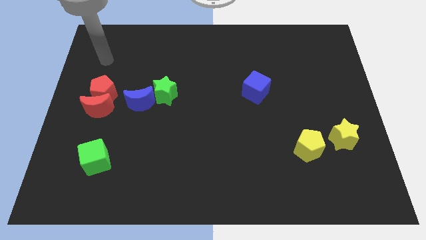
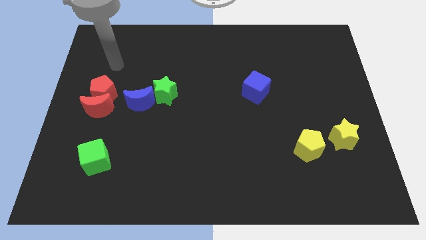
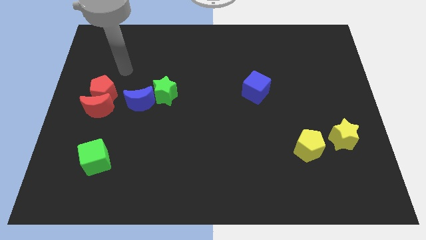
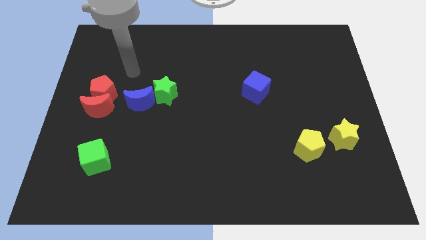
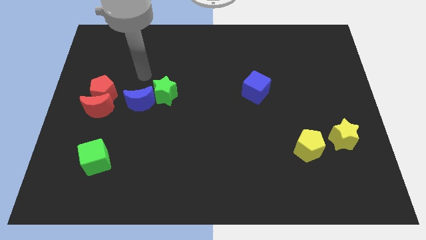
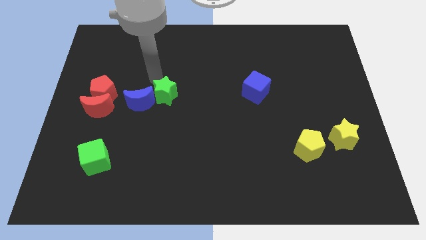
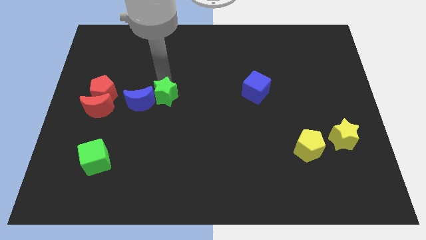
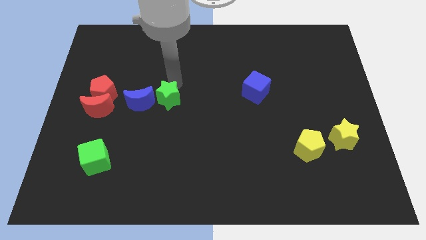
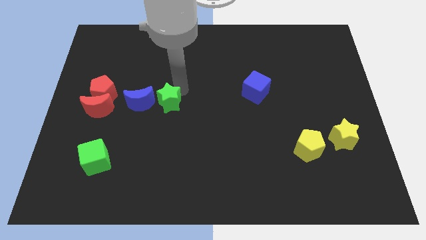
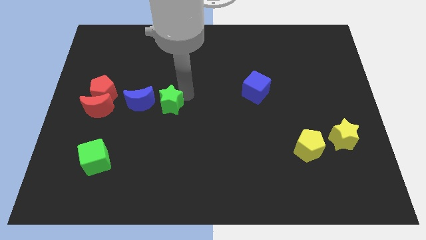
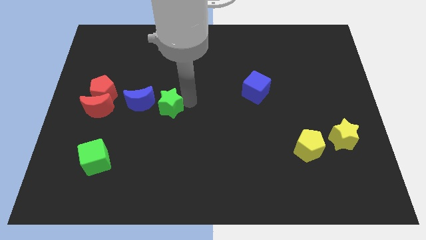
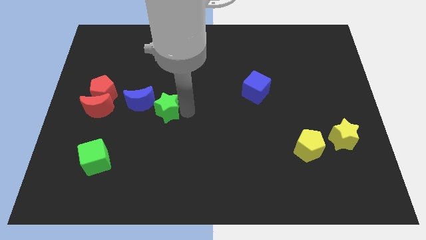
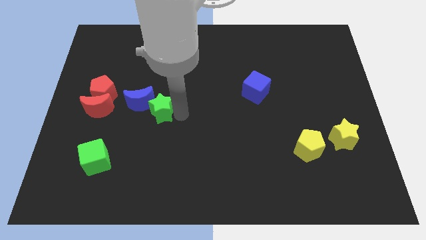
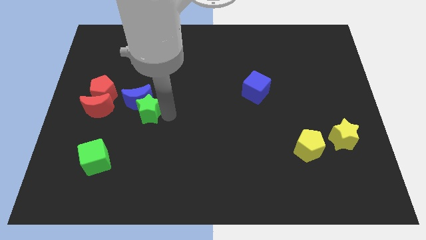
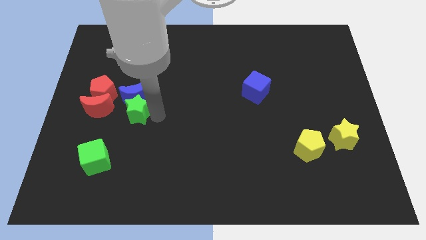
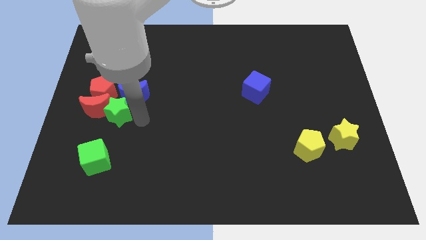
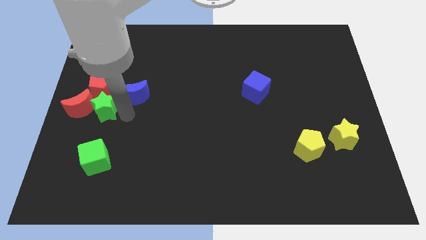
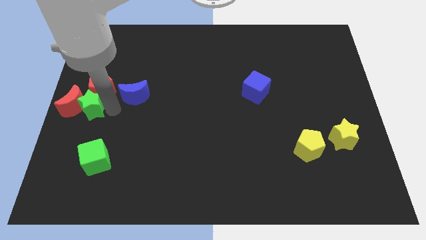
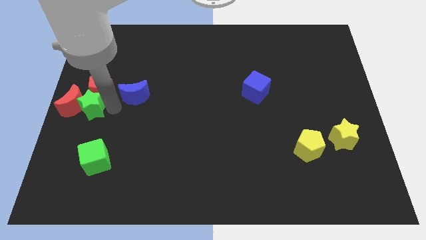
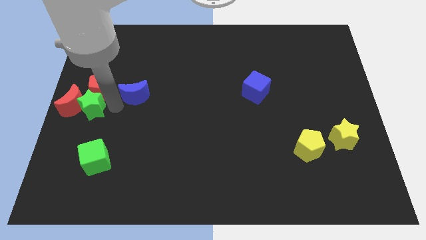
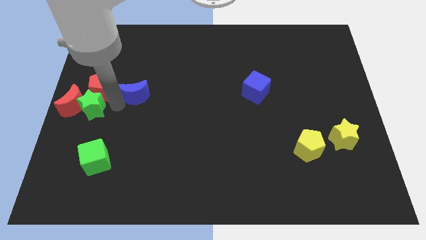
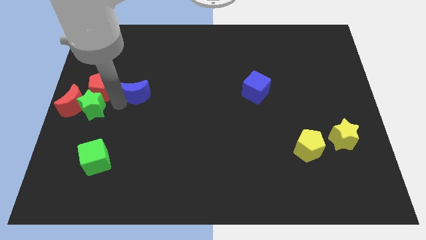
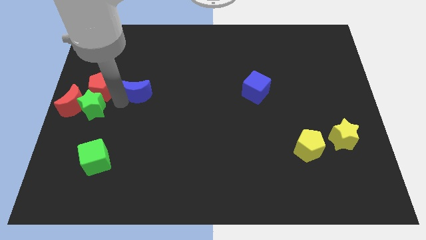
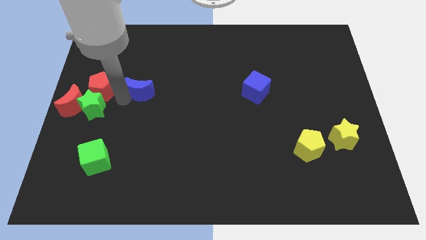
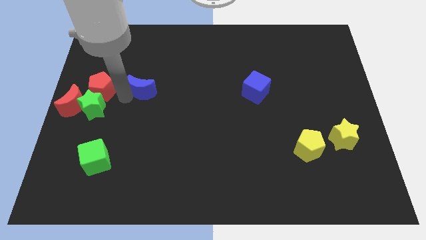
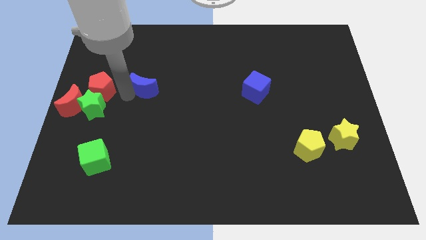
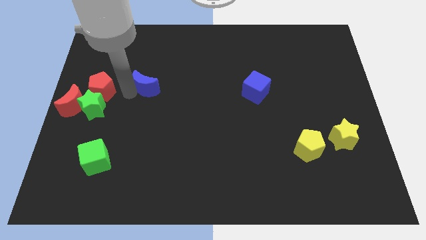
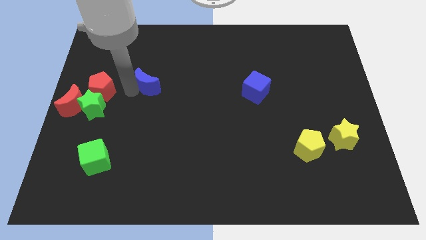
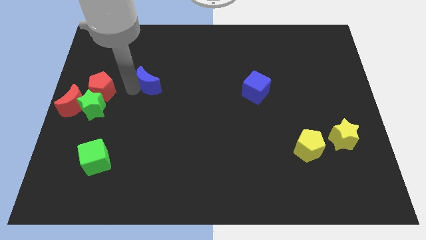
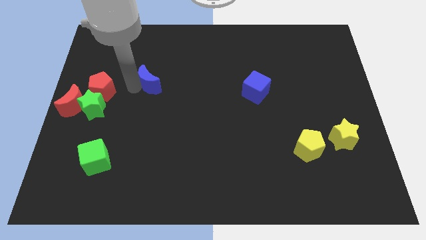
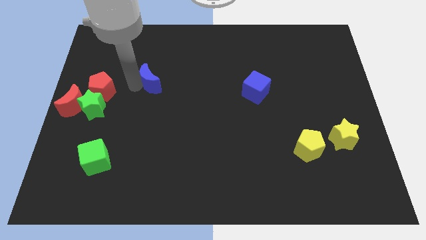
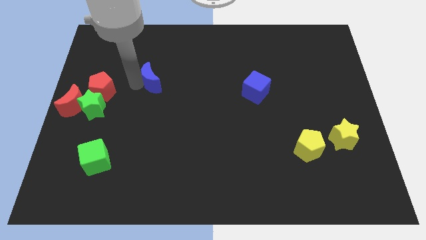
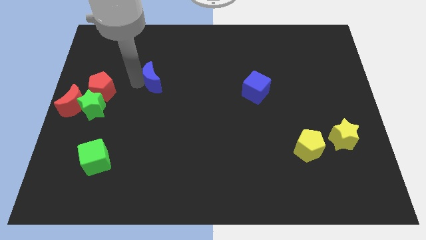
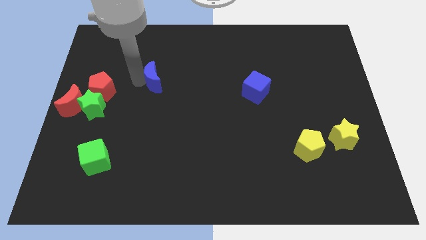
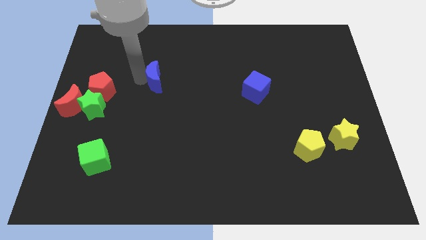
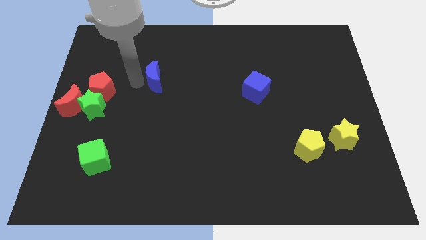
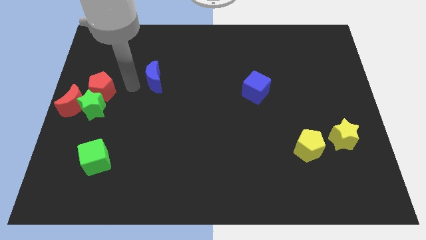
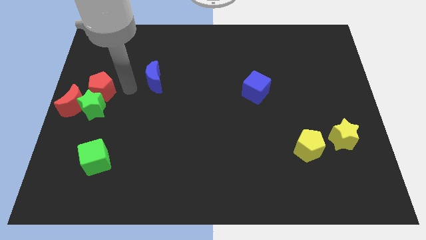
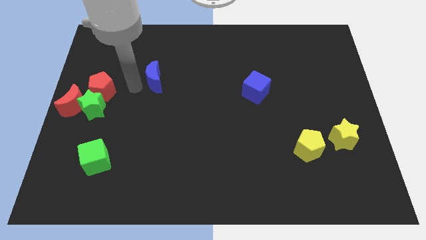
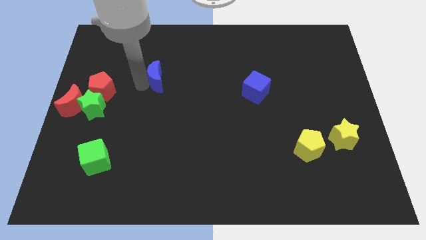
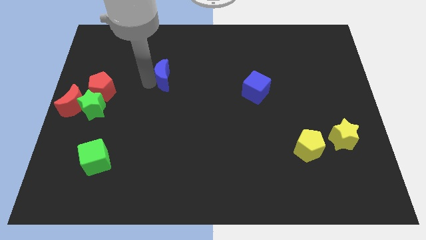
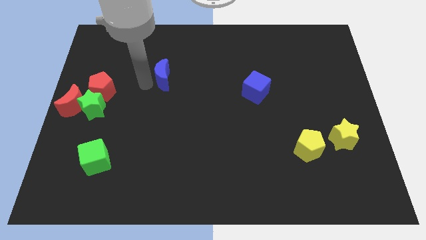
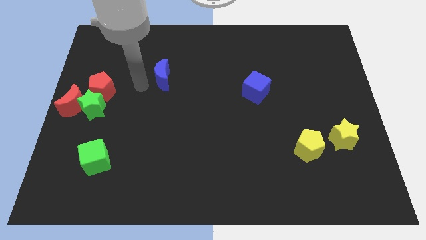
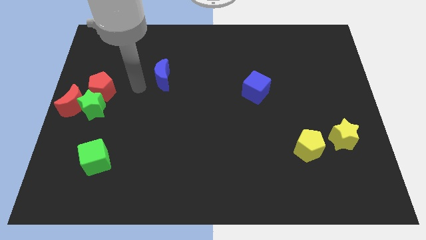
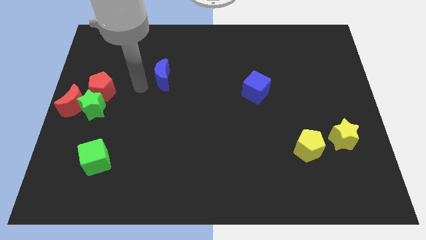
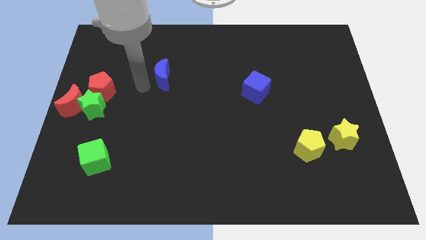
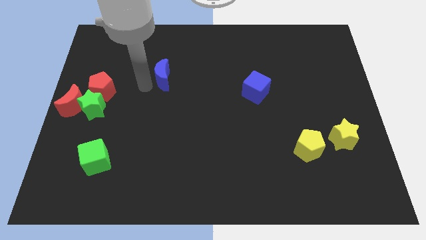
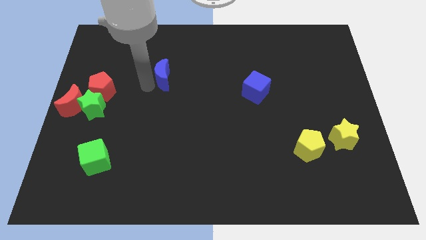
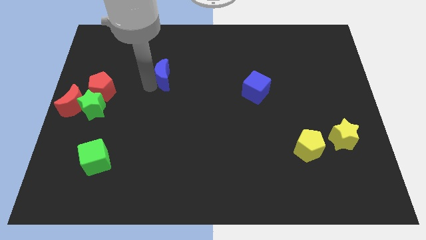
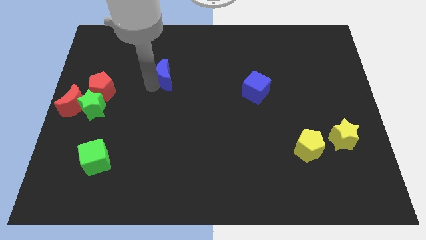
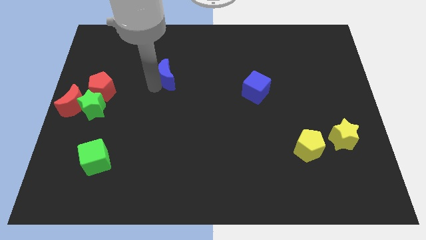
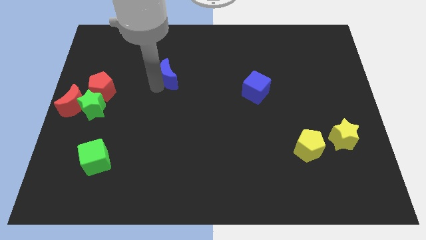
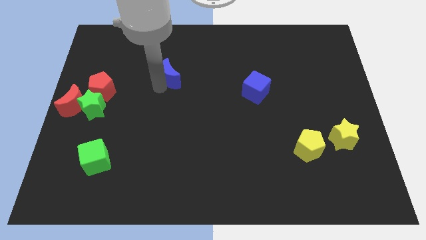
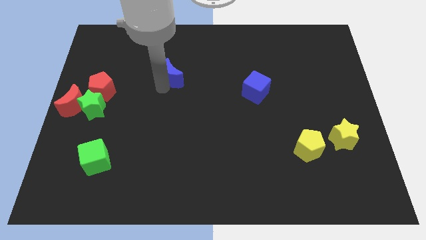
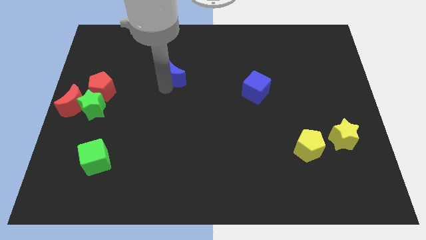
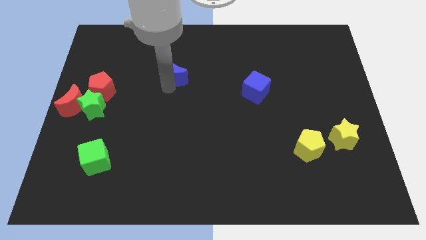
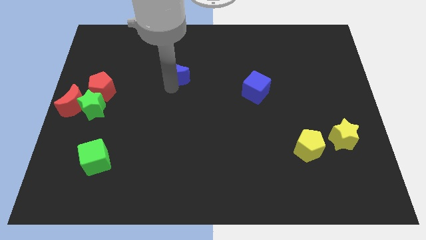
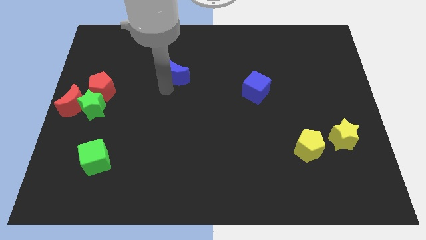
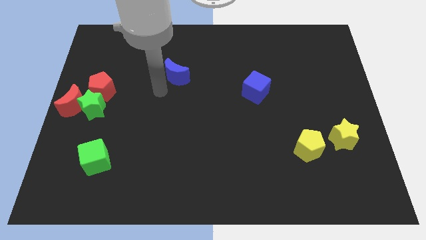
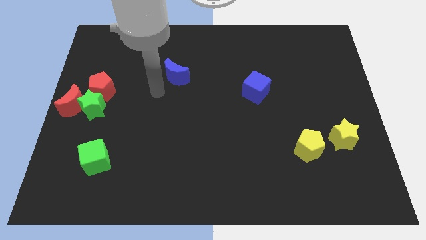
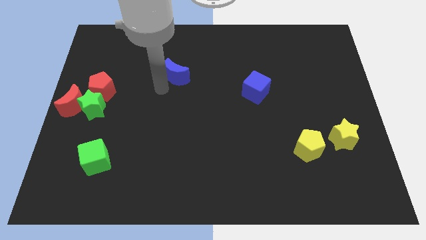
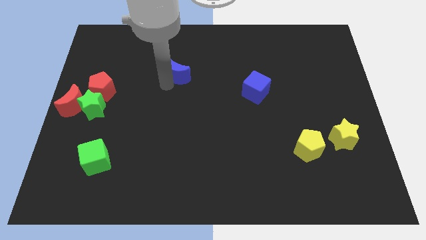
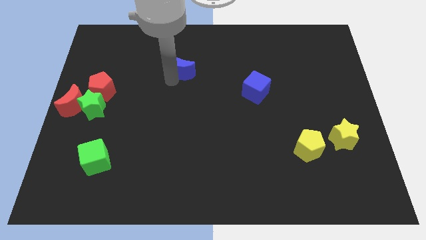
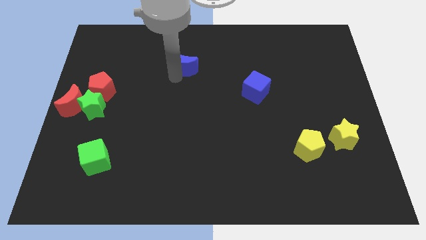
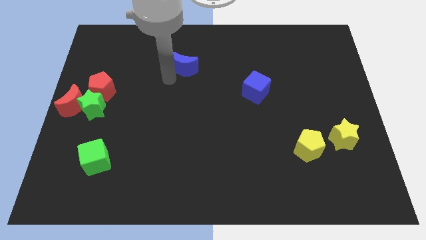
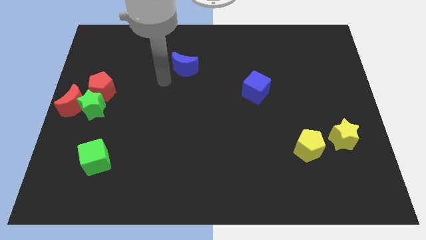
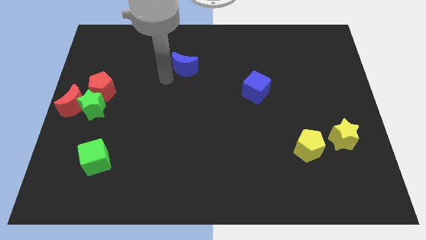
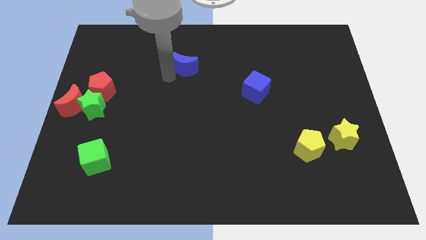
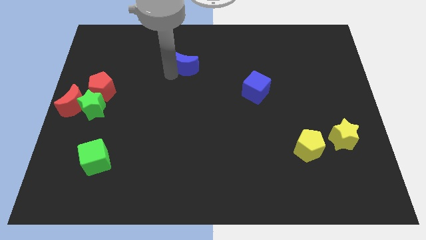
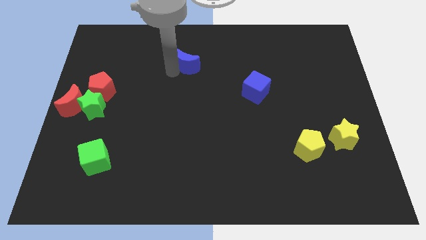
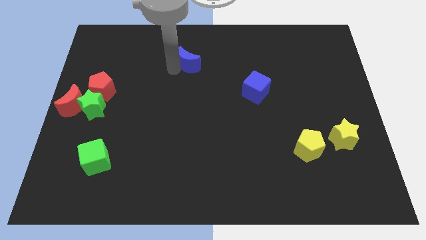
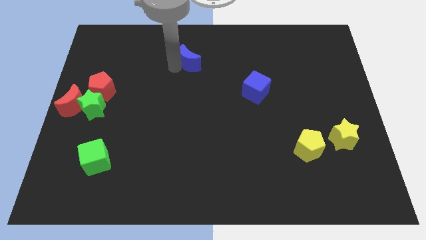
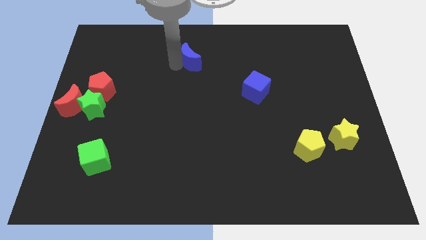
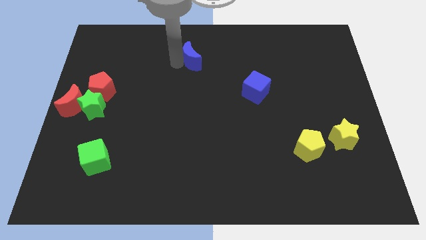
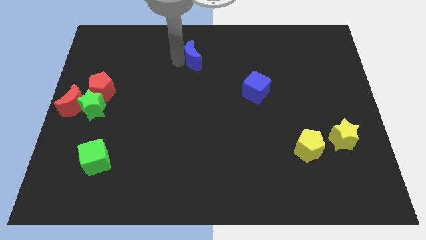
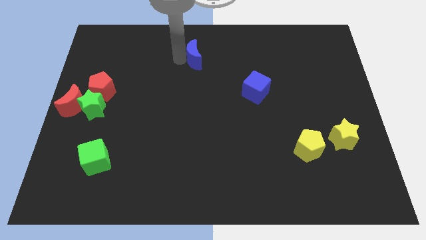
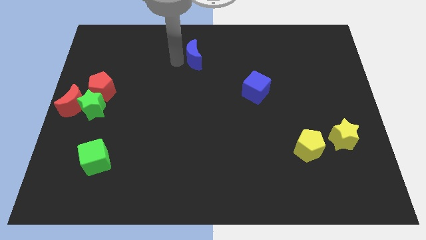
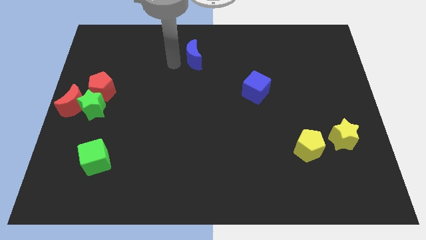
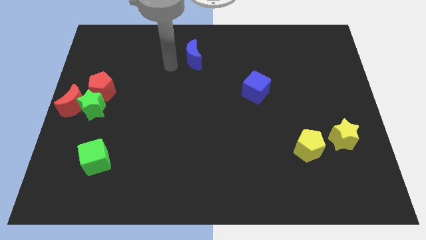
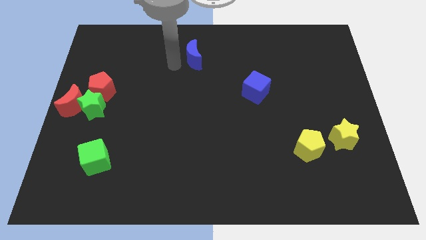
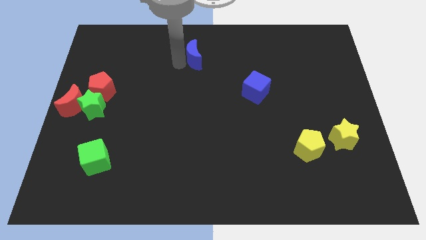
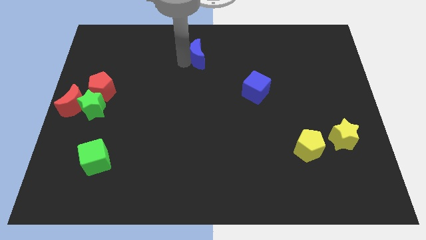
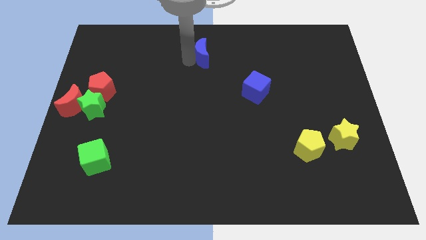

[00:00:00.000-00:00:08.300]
move the blue moon to the top side
